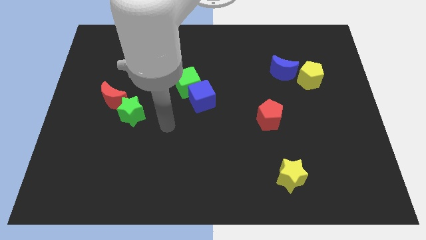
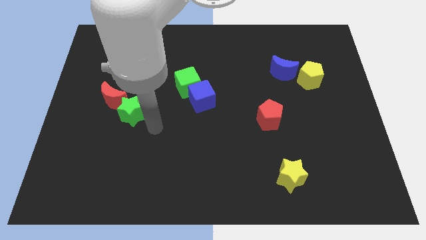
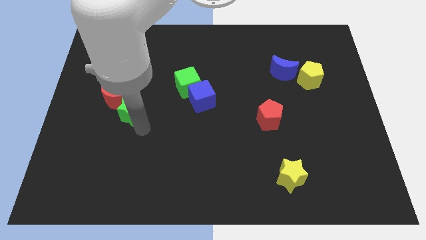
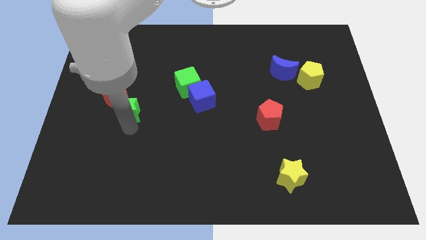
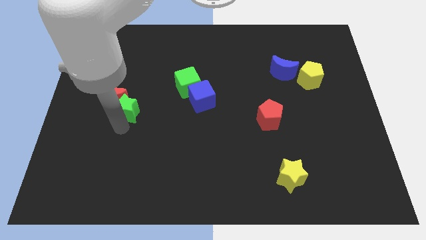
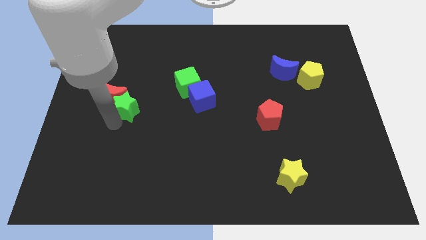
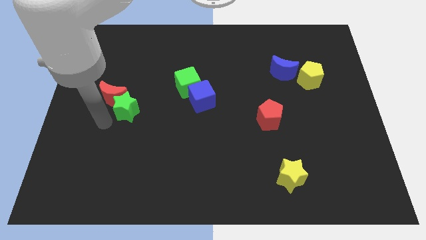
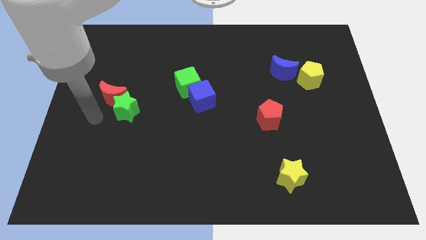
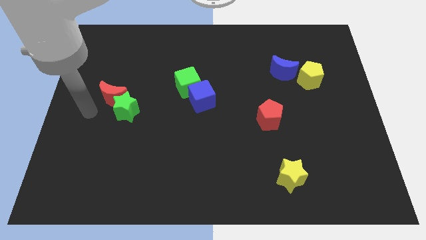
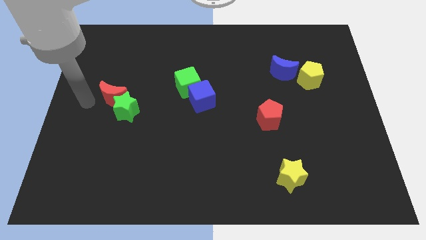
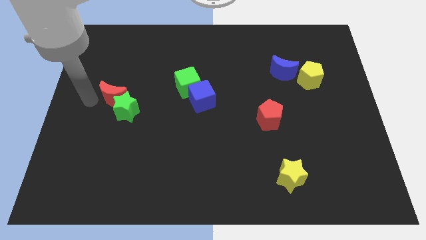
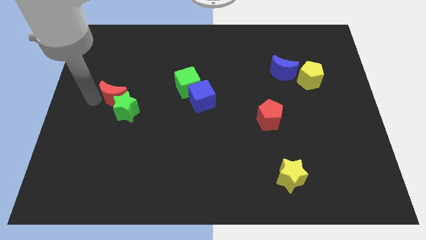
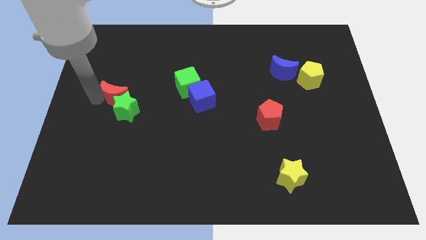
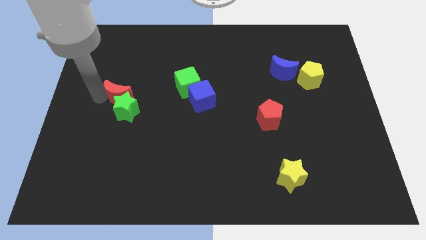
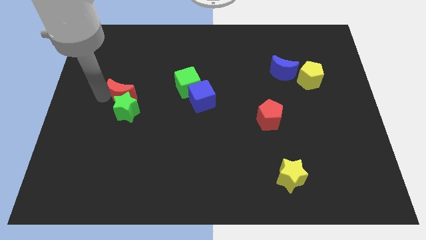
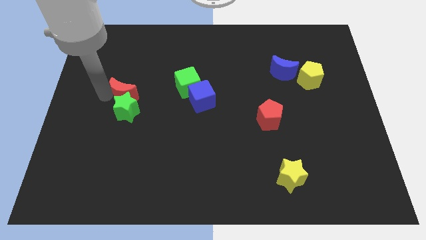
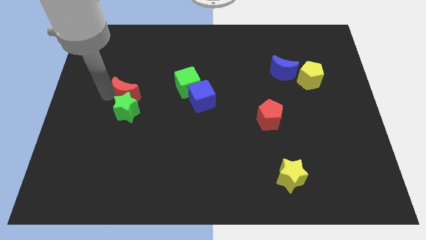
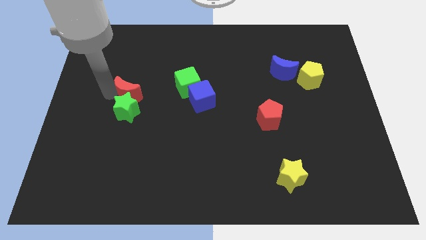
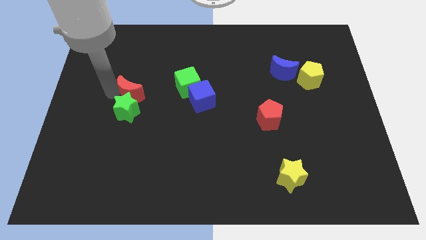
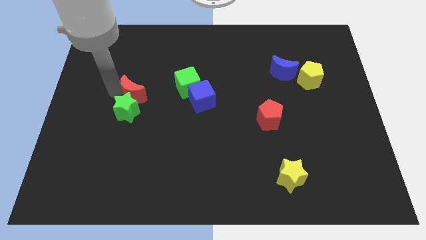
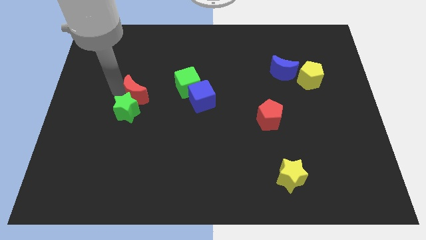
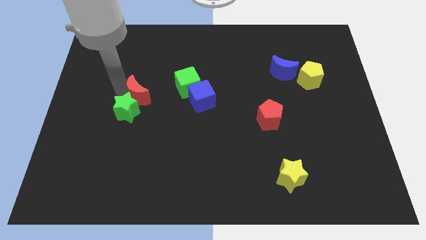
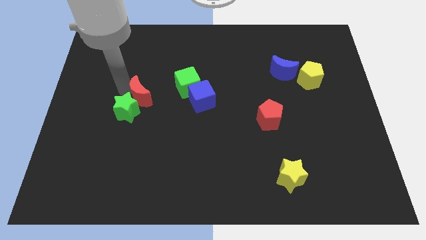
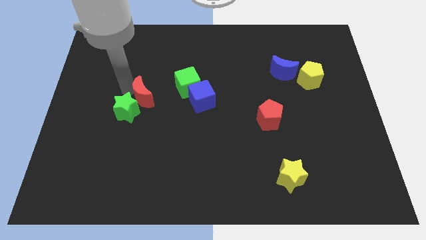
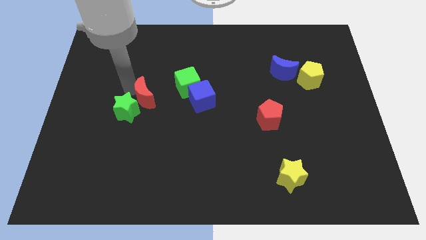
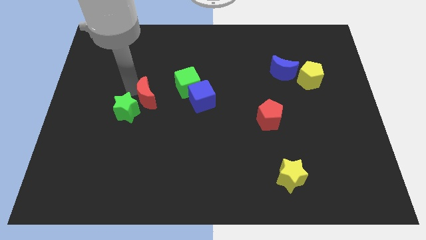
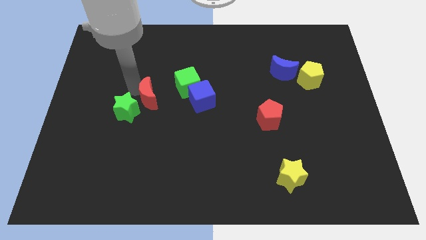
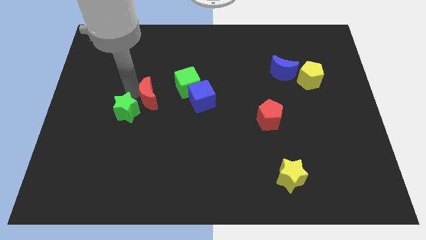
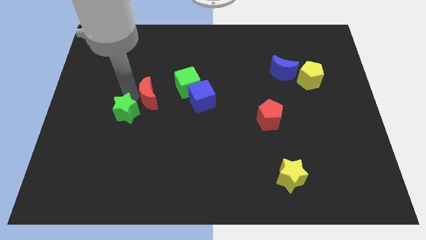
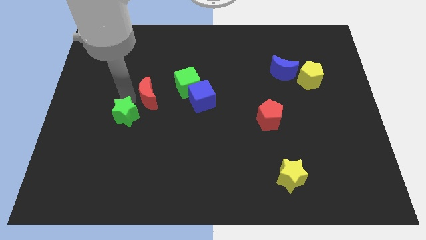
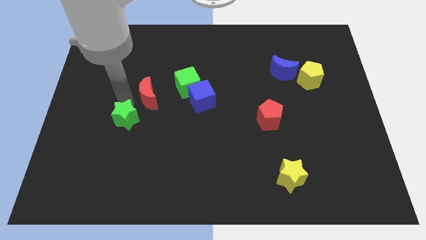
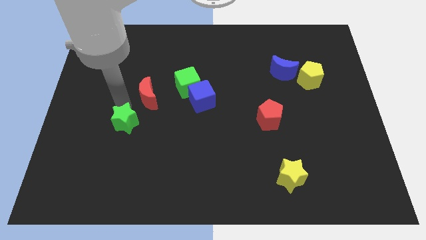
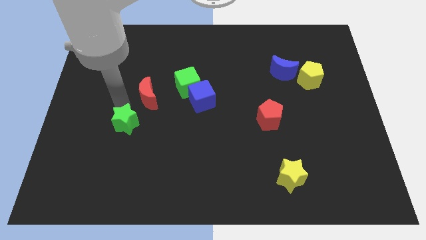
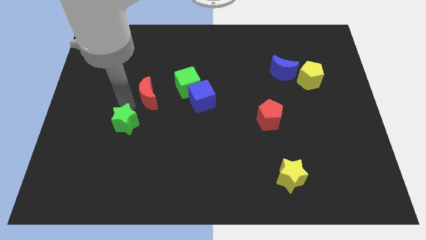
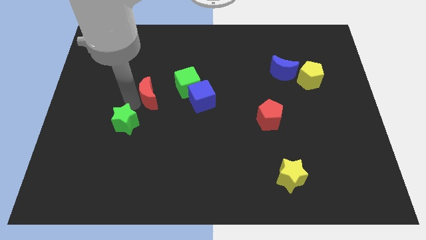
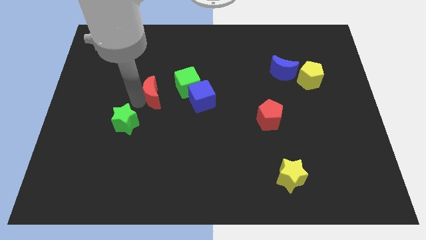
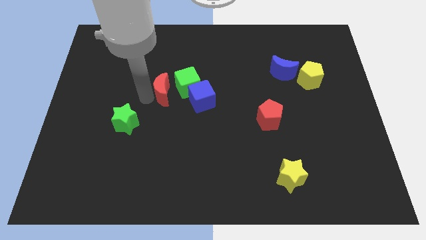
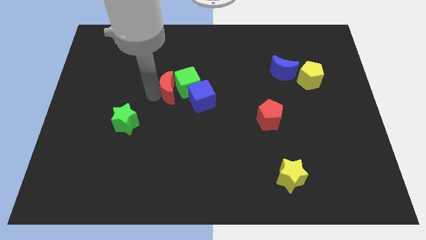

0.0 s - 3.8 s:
put the red moon next to the green cube

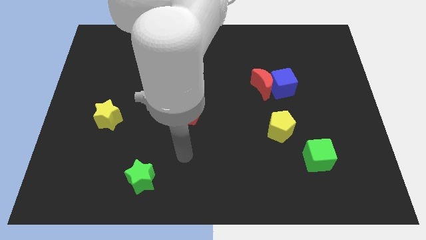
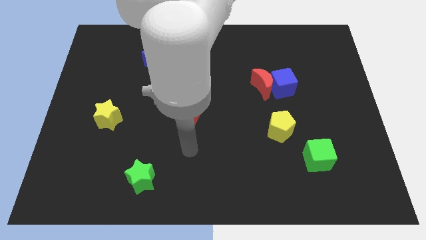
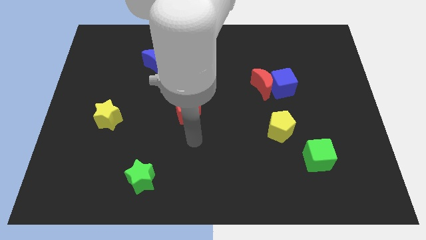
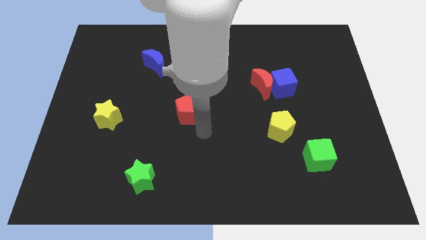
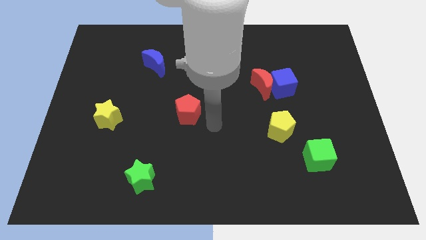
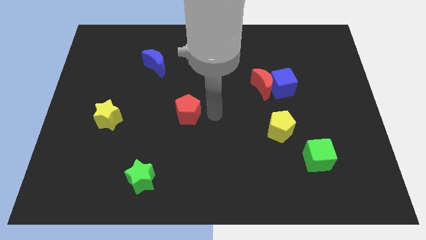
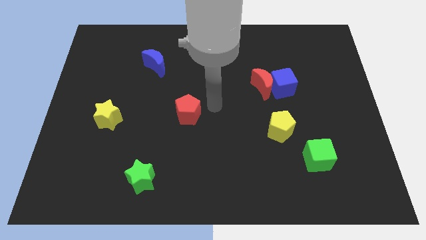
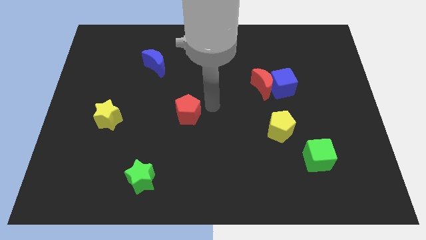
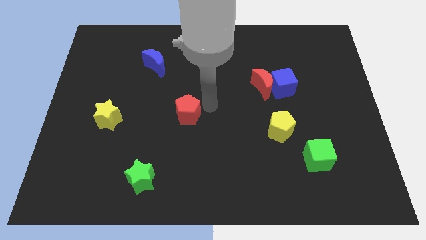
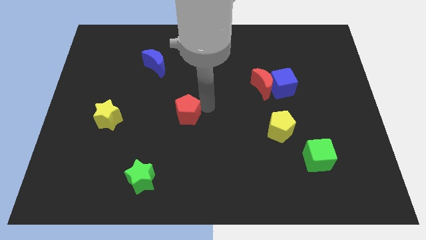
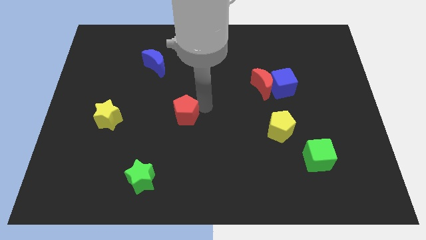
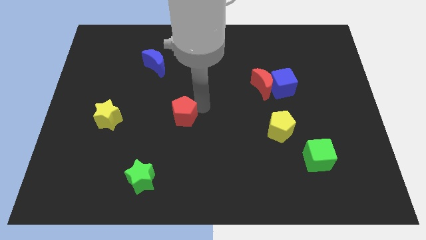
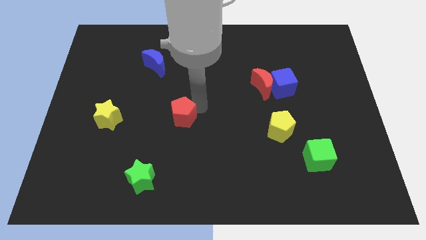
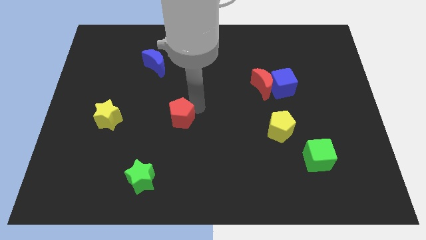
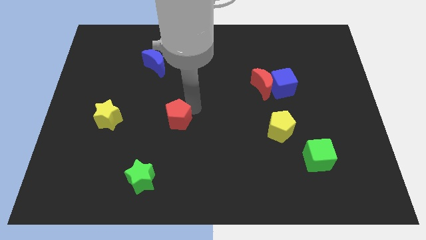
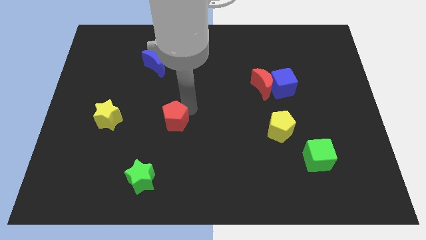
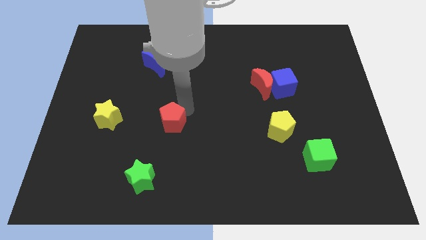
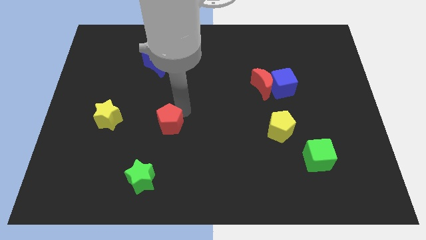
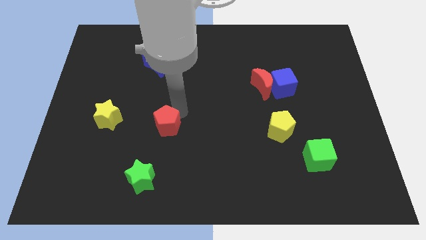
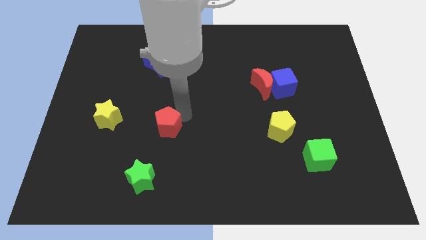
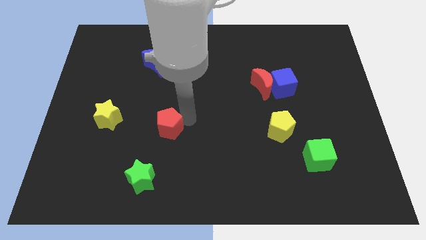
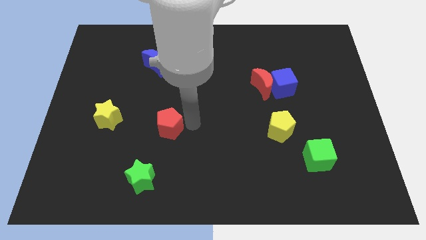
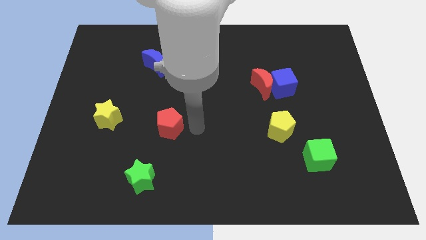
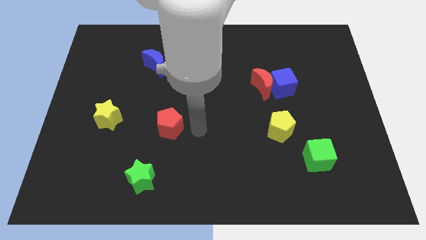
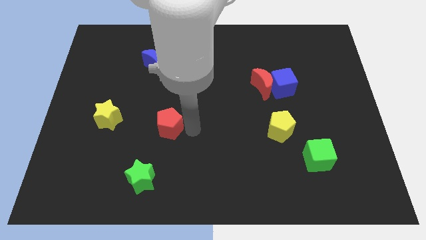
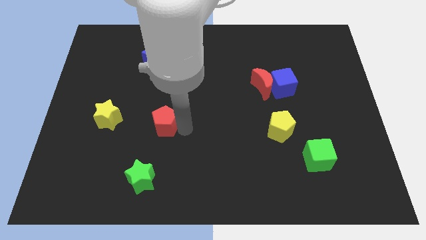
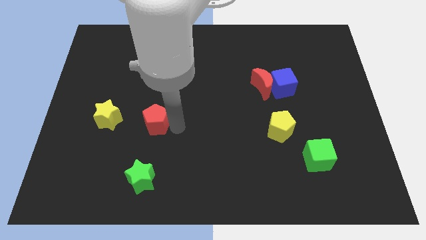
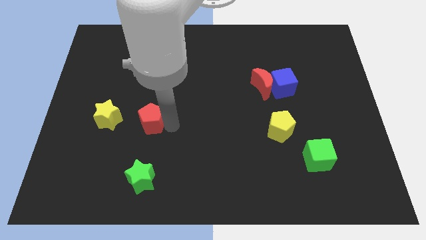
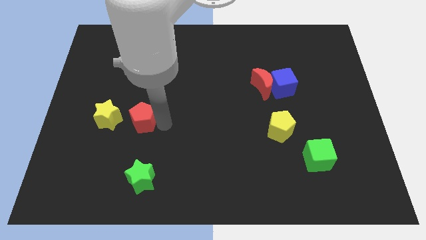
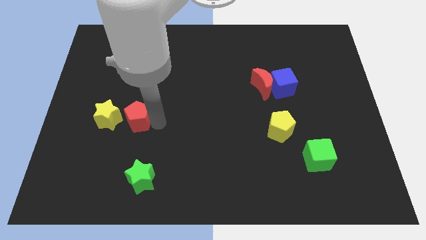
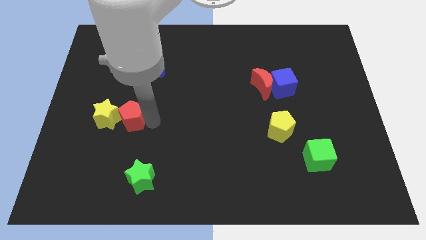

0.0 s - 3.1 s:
move the red pentagon to the yellow star

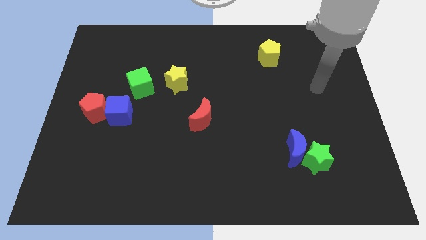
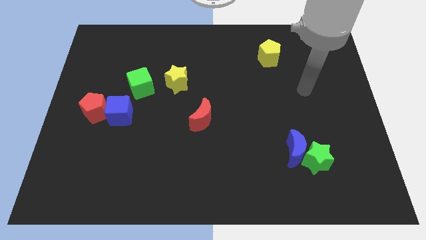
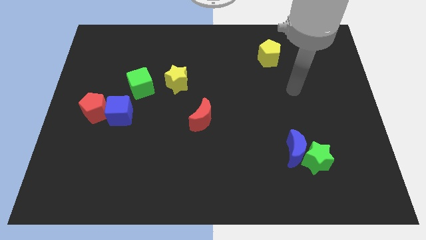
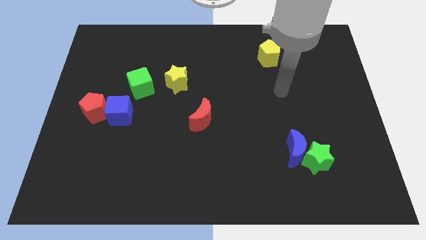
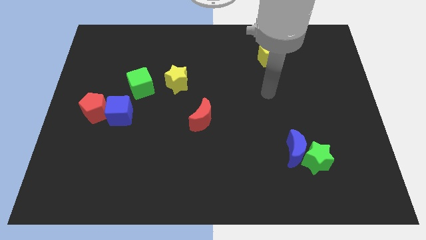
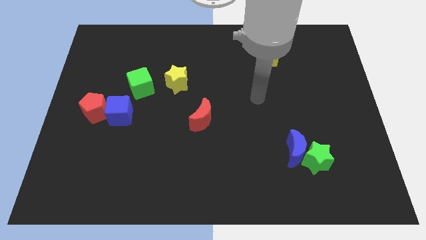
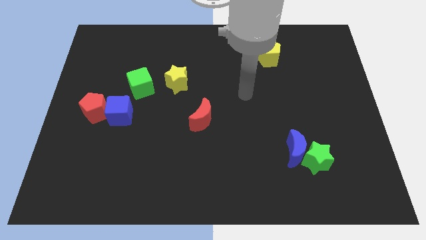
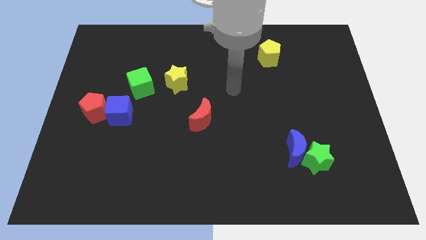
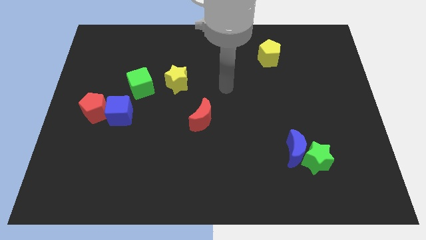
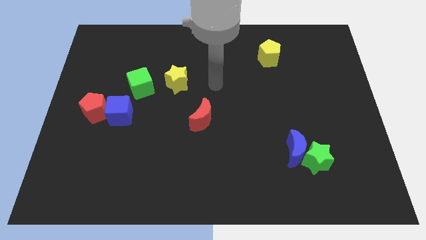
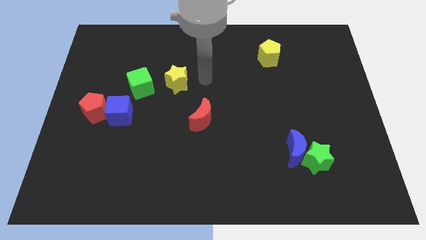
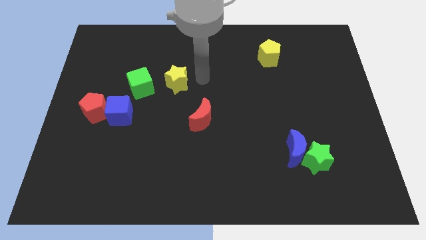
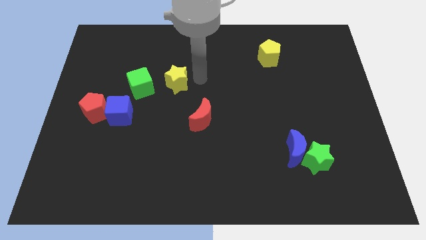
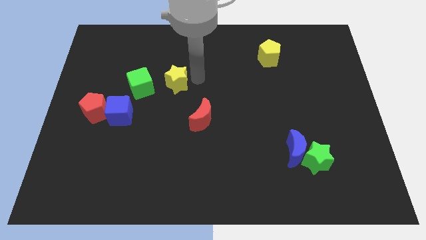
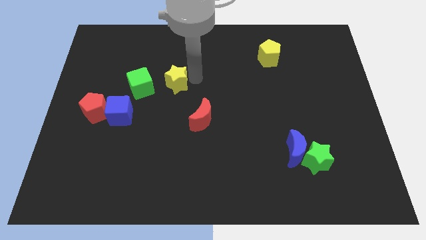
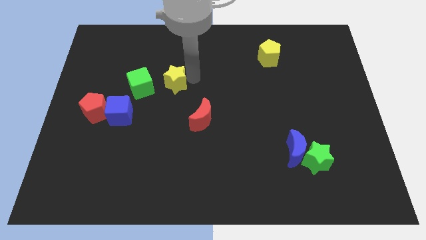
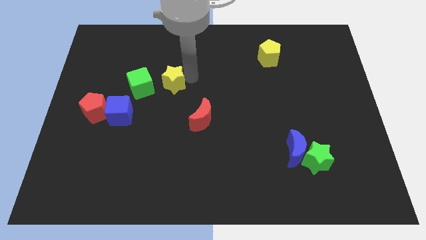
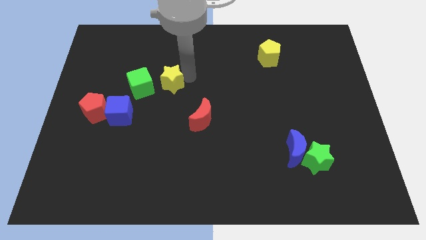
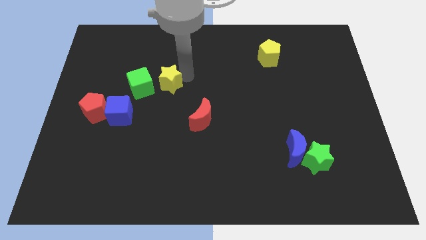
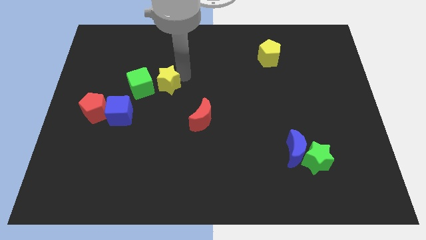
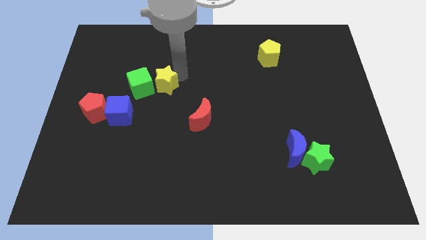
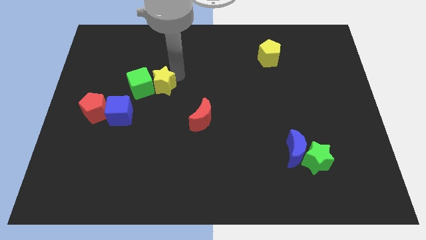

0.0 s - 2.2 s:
push the yellow star next to the green cube
